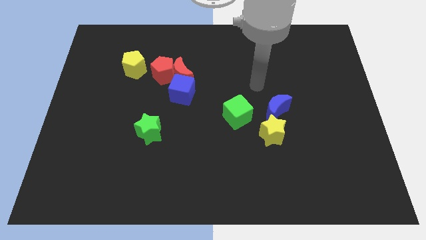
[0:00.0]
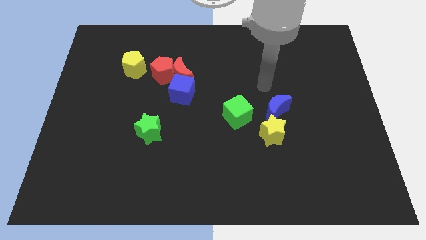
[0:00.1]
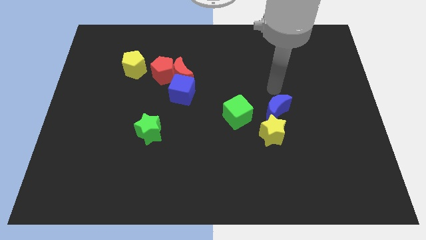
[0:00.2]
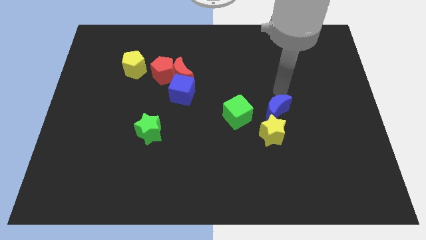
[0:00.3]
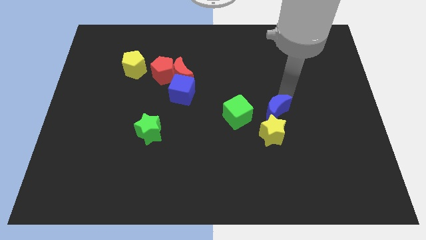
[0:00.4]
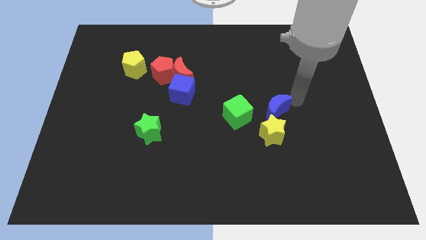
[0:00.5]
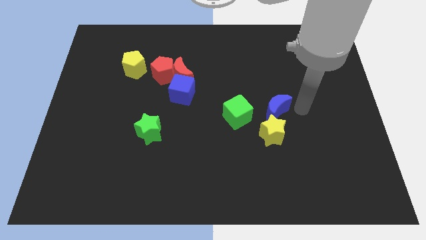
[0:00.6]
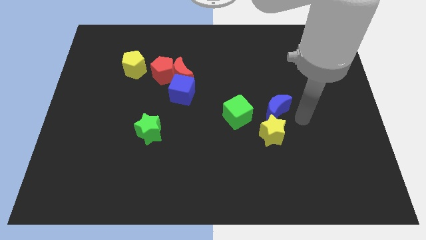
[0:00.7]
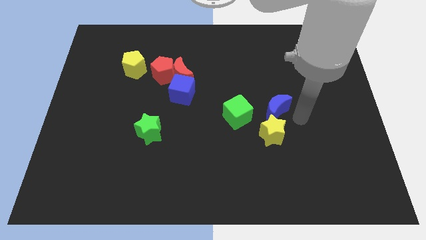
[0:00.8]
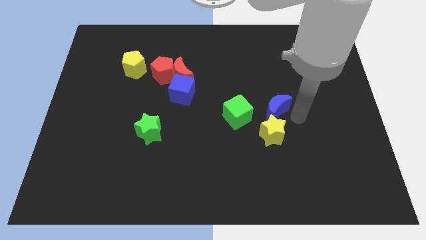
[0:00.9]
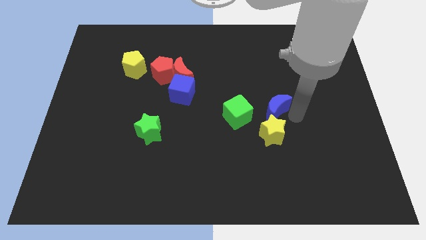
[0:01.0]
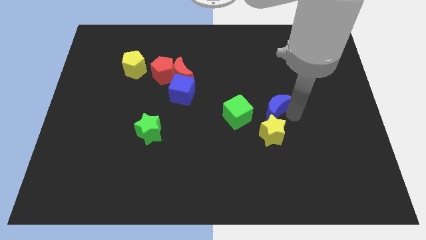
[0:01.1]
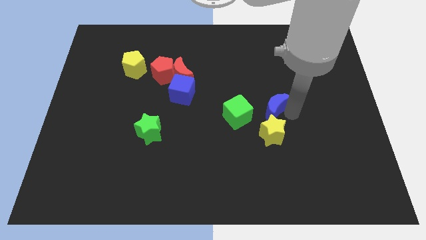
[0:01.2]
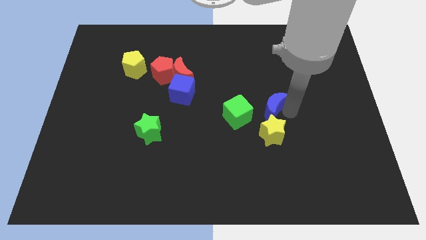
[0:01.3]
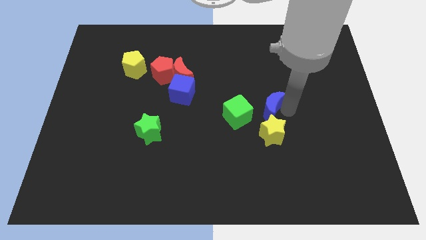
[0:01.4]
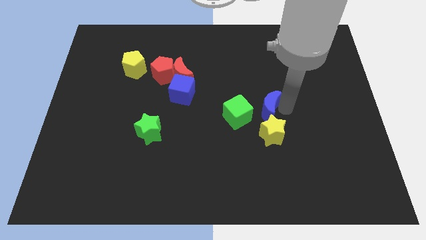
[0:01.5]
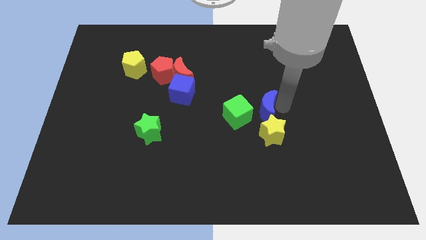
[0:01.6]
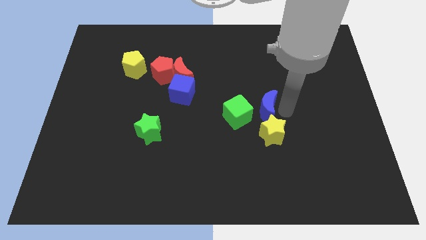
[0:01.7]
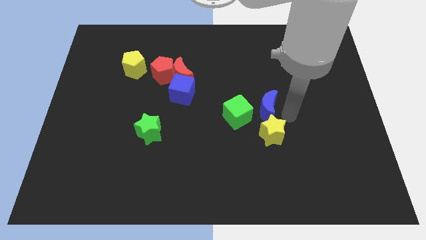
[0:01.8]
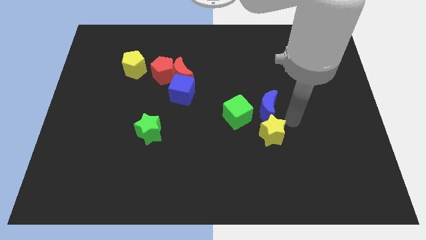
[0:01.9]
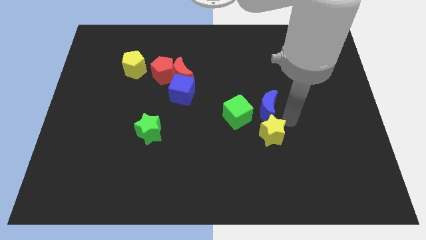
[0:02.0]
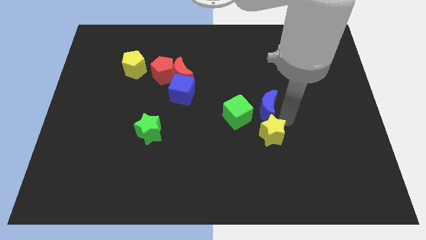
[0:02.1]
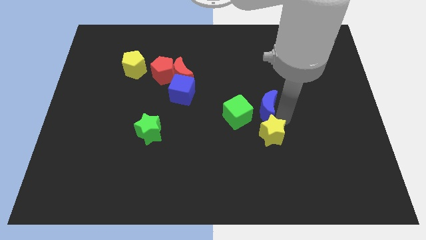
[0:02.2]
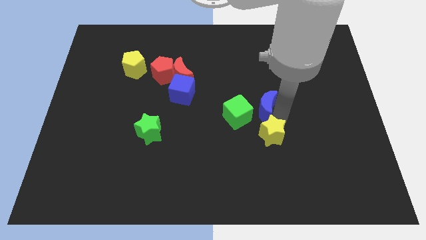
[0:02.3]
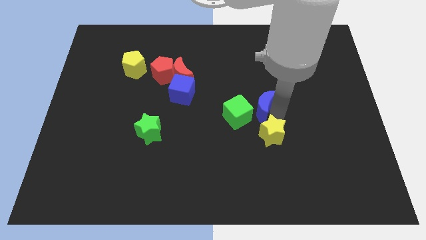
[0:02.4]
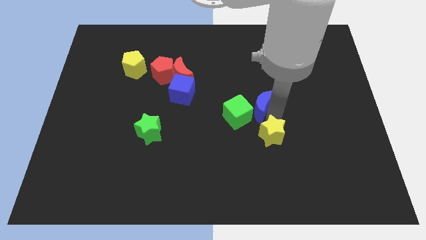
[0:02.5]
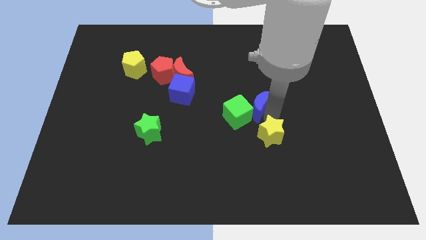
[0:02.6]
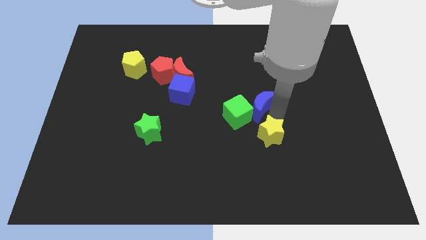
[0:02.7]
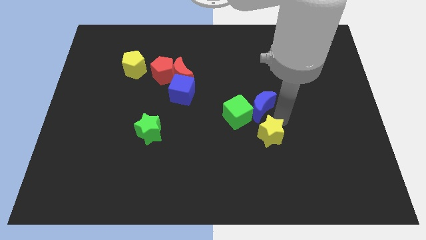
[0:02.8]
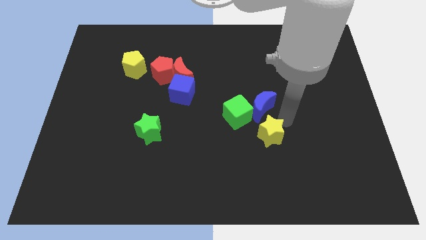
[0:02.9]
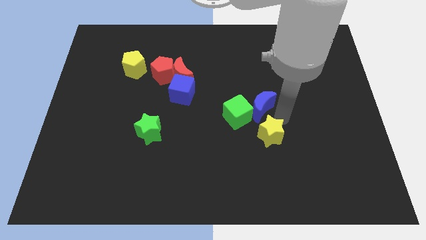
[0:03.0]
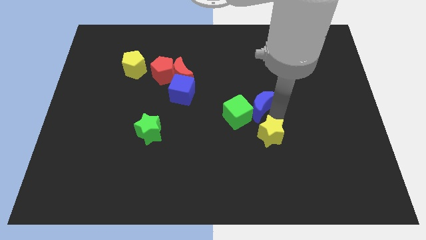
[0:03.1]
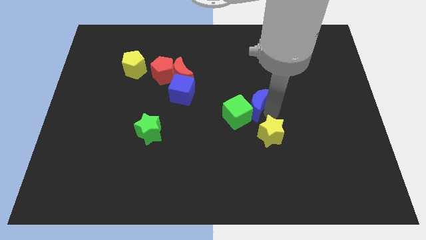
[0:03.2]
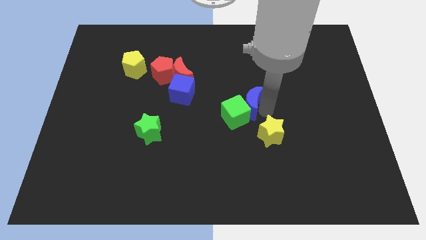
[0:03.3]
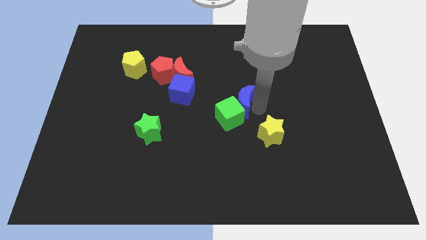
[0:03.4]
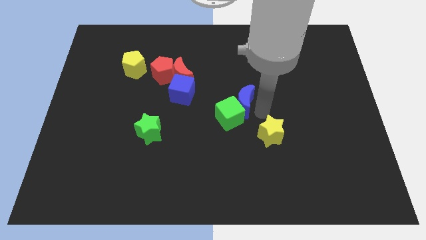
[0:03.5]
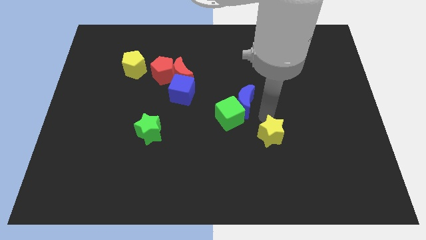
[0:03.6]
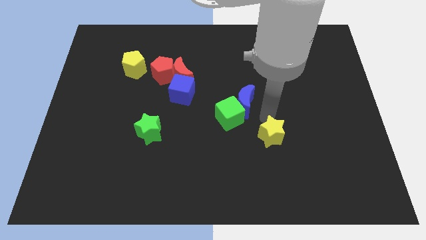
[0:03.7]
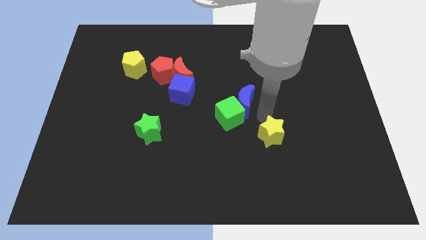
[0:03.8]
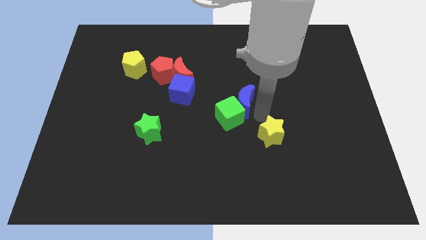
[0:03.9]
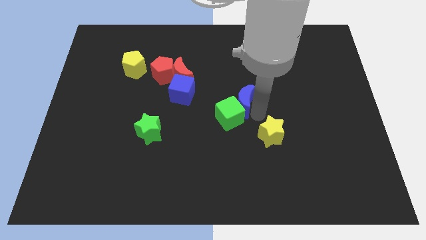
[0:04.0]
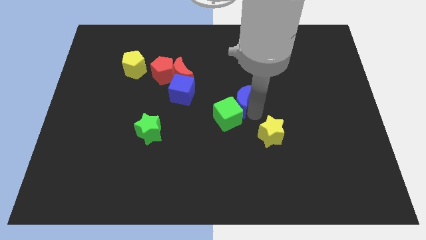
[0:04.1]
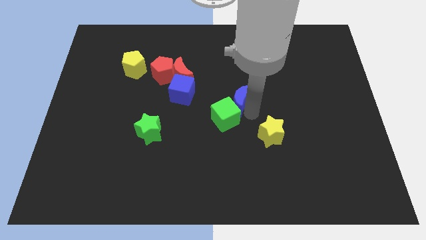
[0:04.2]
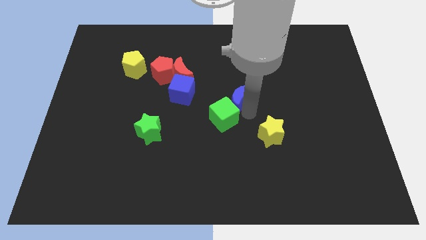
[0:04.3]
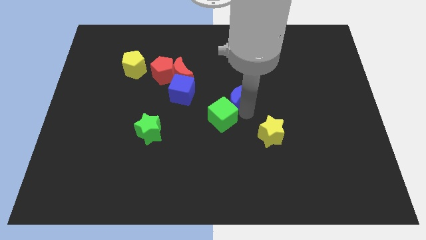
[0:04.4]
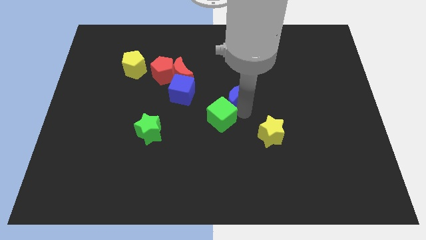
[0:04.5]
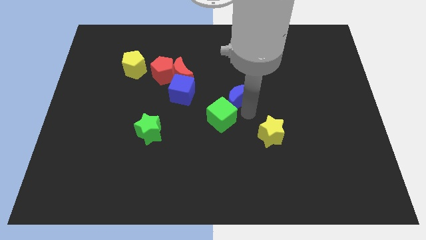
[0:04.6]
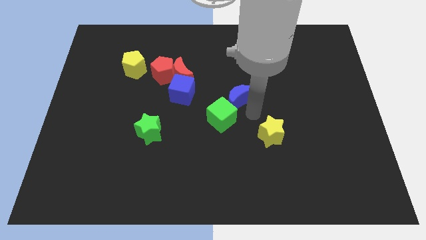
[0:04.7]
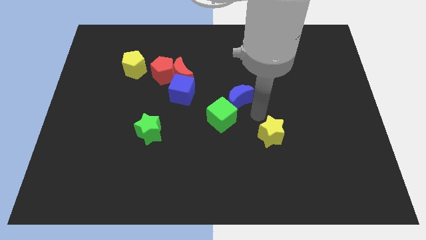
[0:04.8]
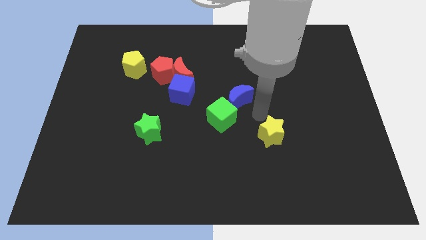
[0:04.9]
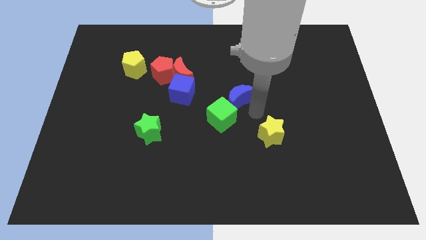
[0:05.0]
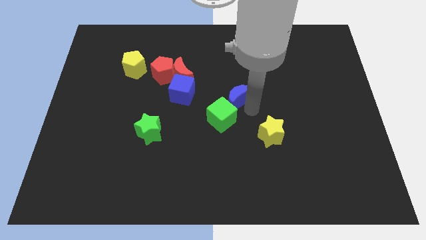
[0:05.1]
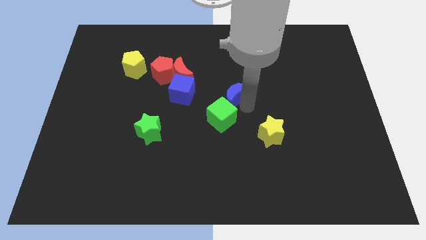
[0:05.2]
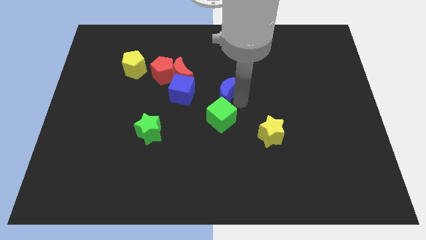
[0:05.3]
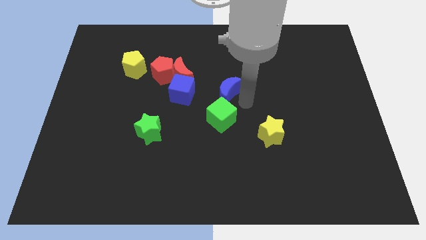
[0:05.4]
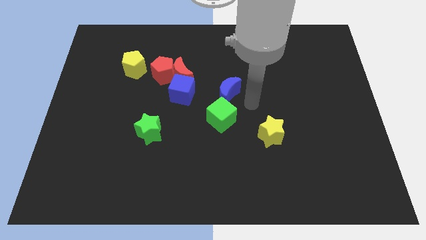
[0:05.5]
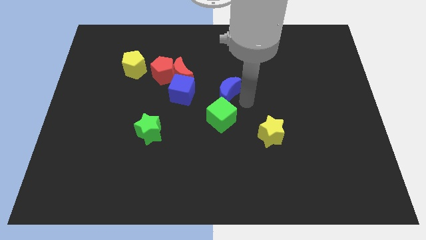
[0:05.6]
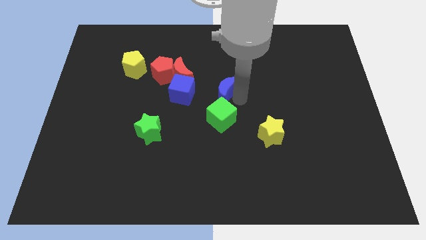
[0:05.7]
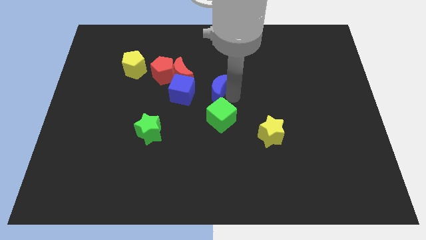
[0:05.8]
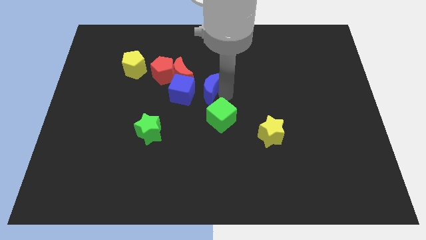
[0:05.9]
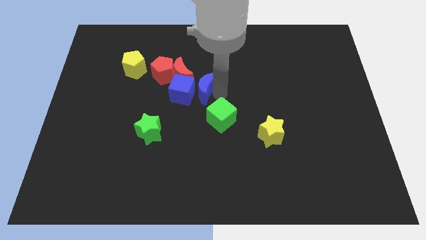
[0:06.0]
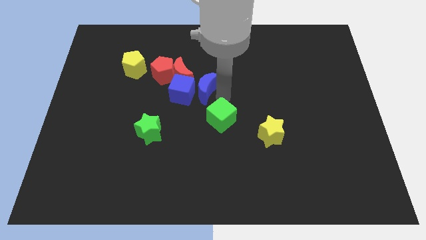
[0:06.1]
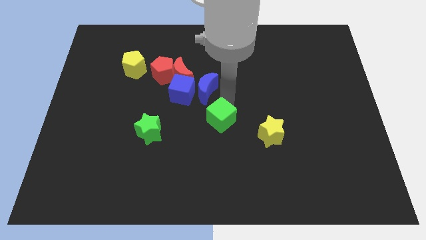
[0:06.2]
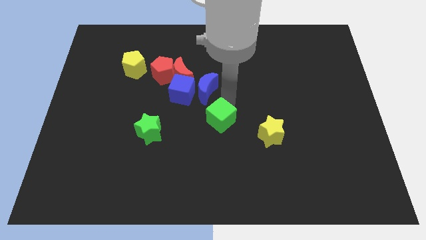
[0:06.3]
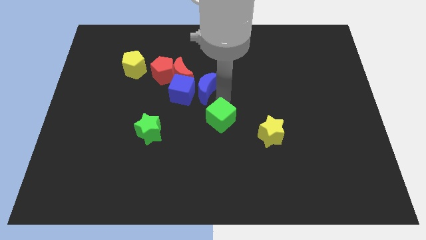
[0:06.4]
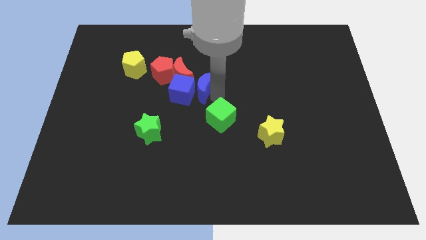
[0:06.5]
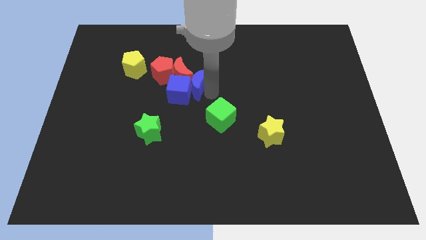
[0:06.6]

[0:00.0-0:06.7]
push the blue moon close to the red moon
